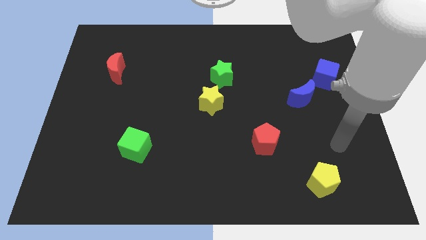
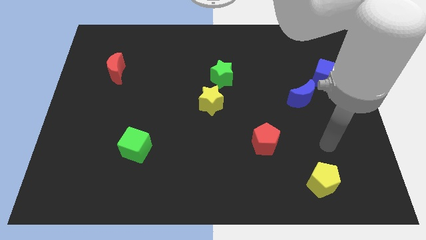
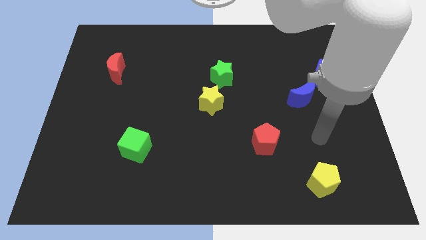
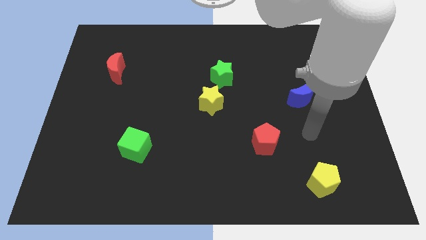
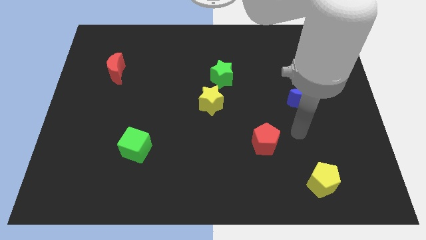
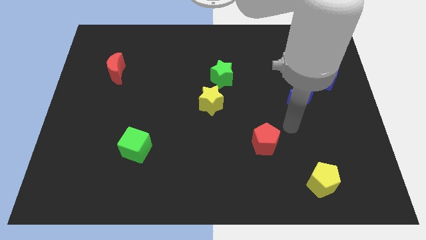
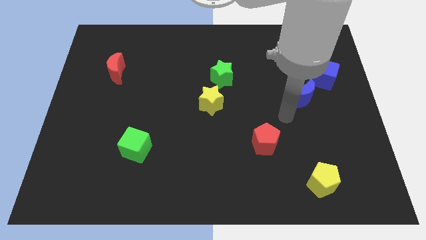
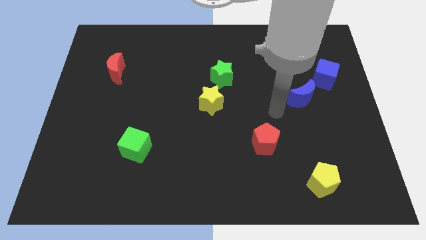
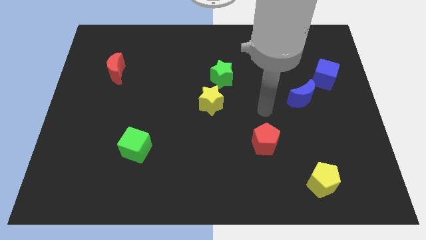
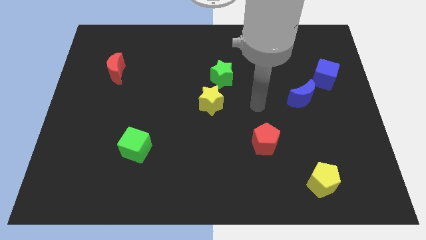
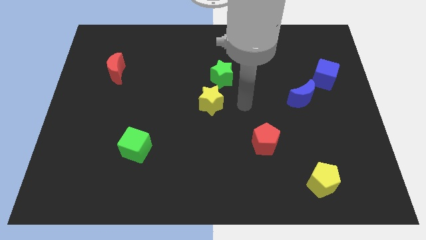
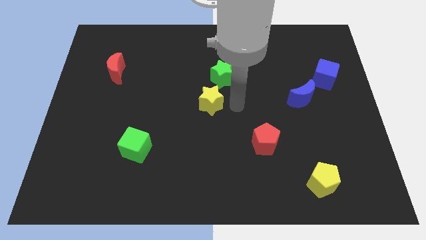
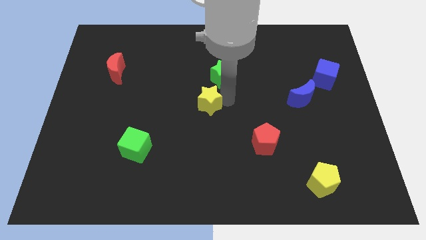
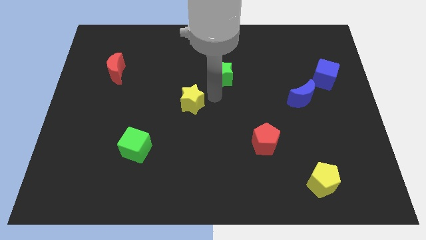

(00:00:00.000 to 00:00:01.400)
pull the green star apart from the yellow star

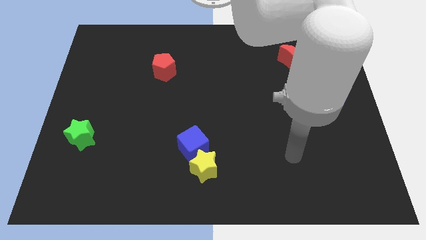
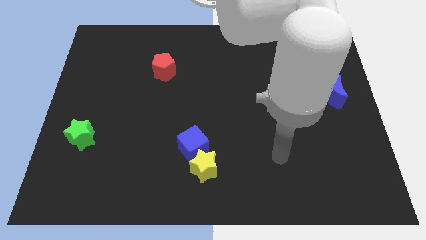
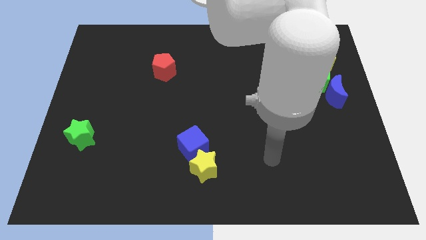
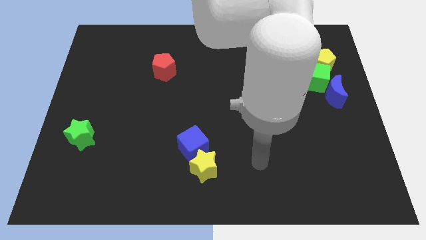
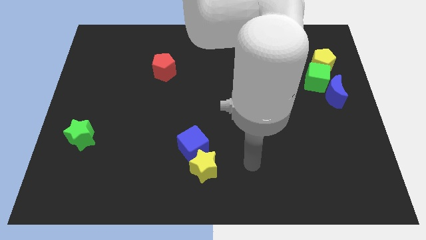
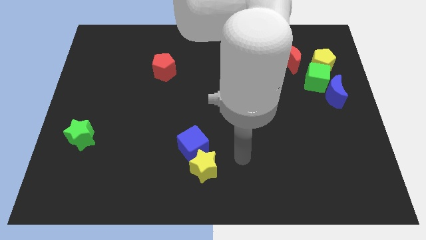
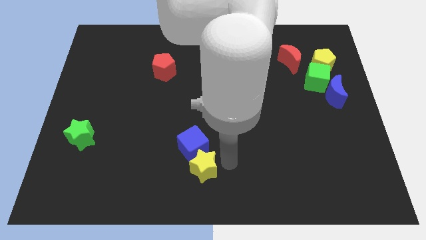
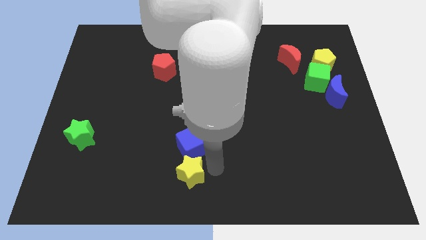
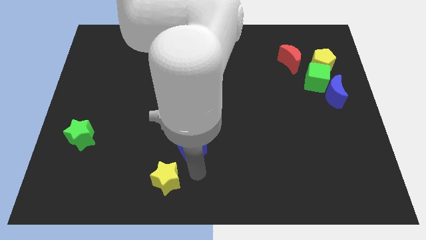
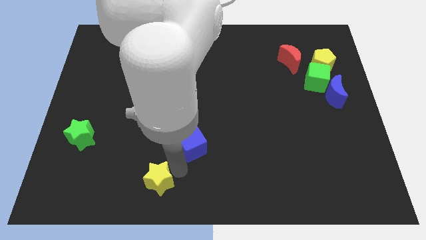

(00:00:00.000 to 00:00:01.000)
move the blue cube away from the yellow star

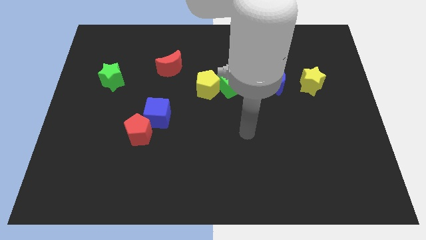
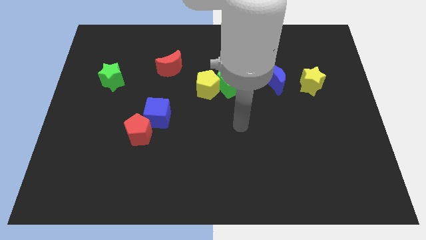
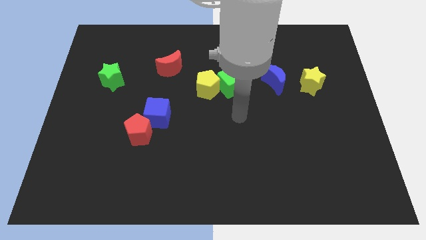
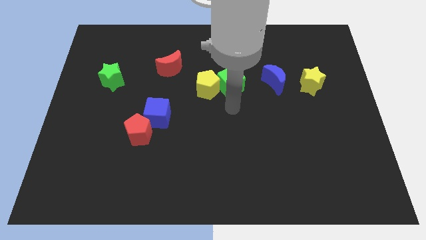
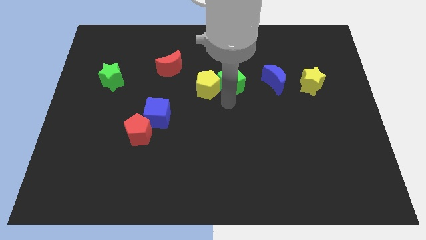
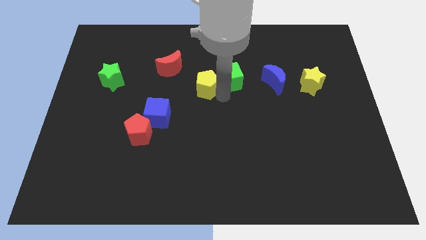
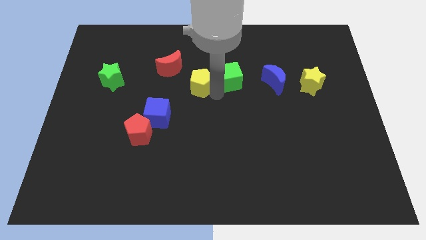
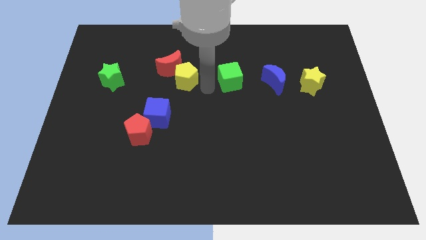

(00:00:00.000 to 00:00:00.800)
separate the green cube from the yellow pentagon

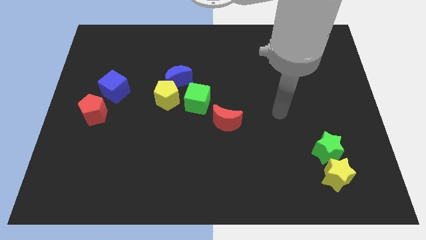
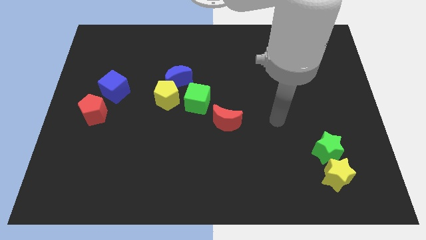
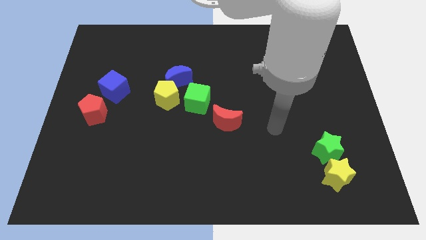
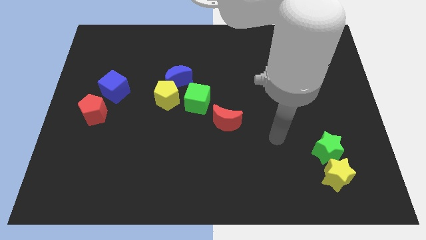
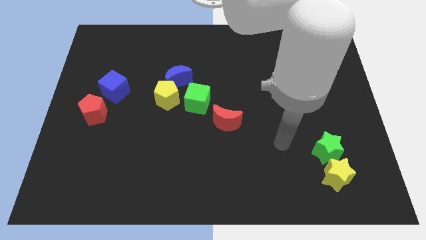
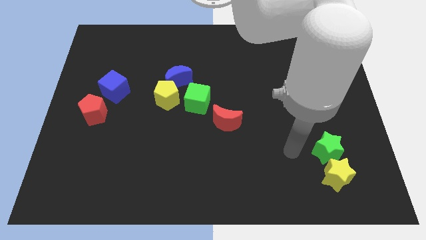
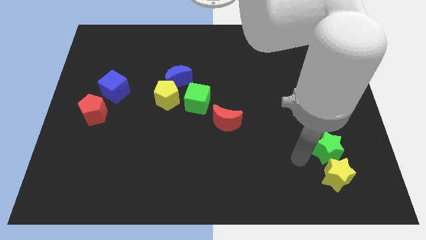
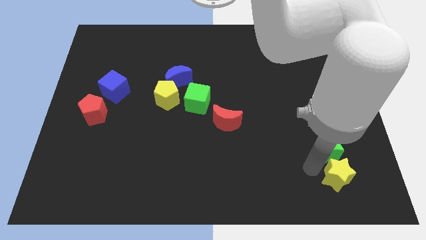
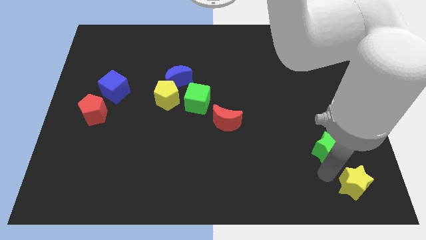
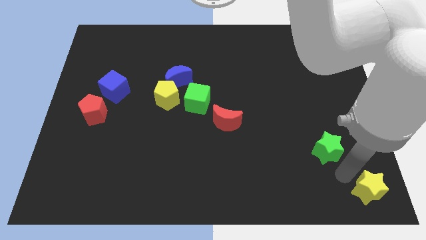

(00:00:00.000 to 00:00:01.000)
move the green star away from the yellow star

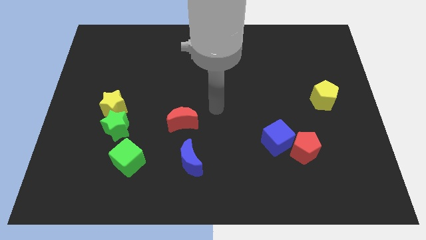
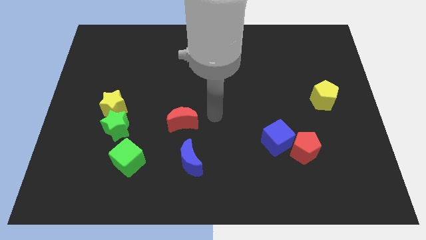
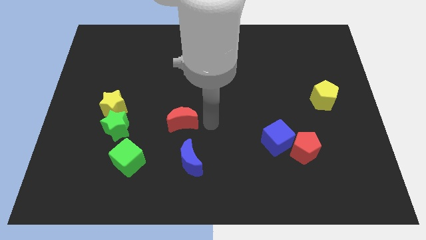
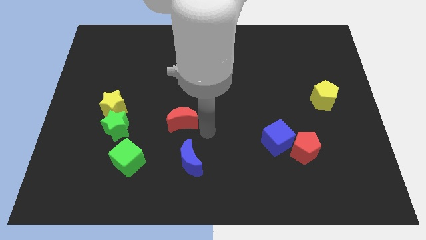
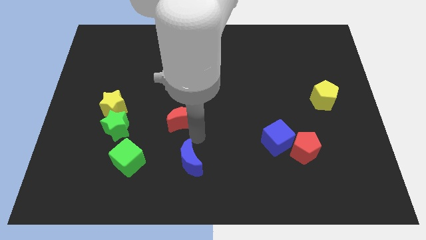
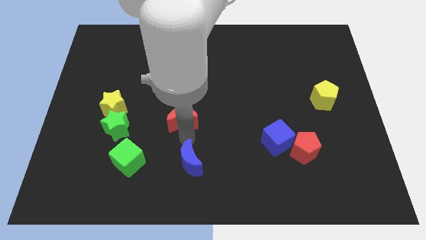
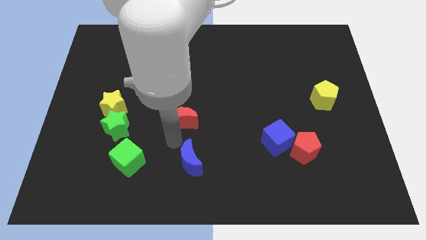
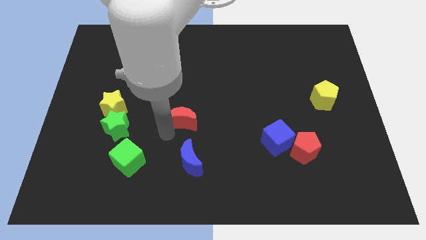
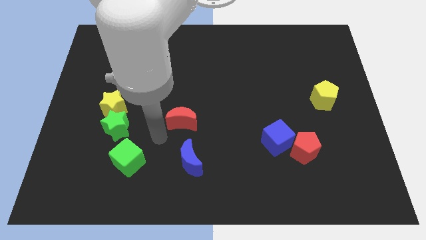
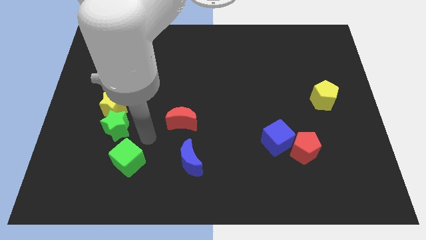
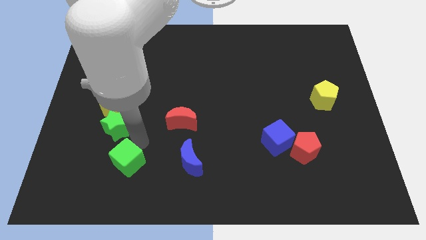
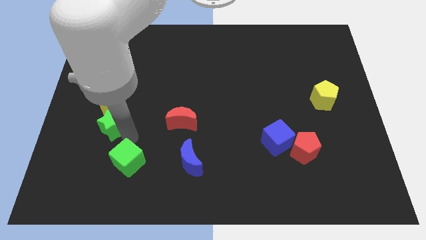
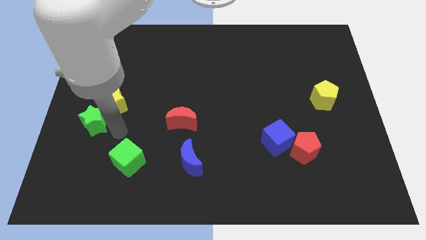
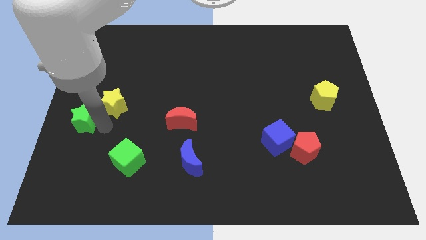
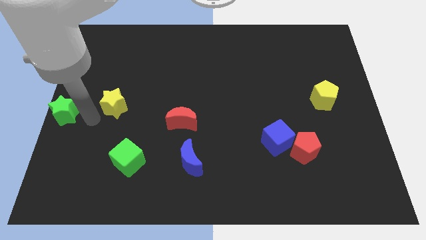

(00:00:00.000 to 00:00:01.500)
pull the yellow star apart from the green star

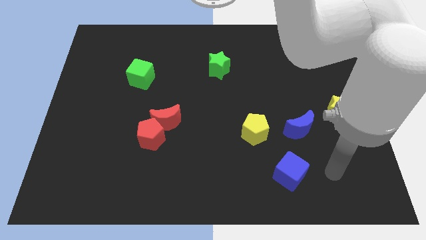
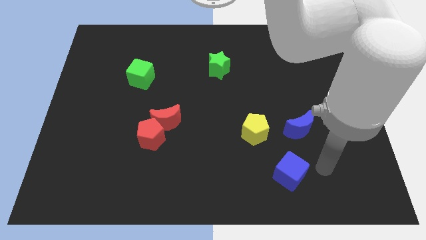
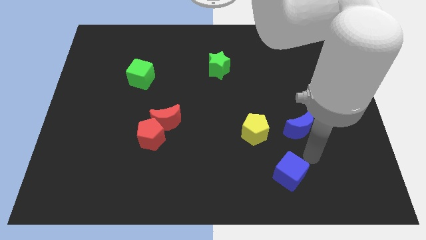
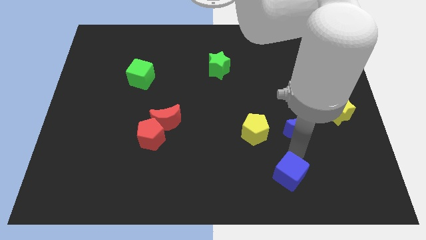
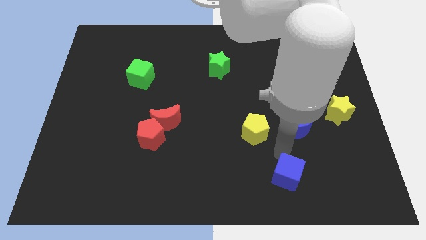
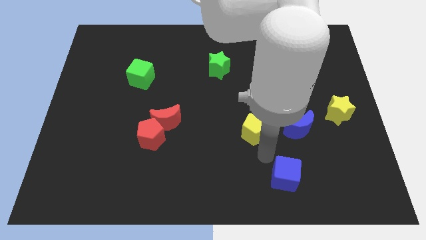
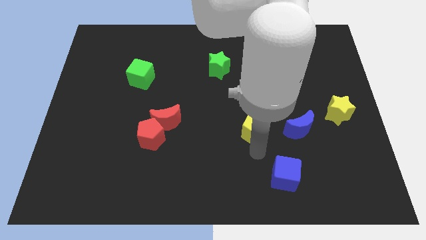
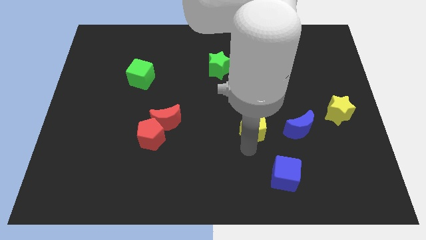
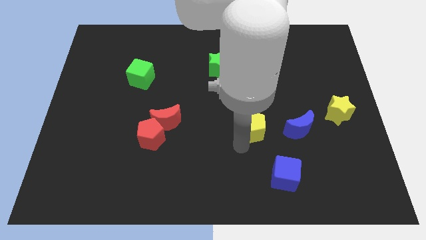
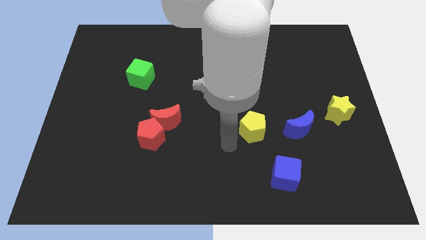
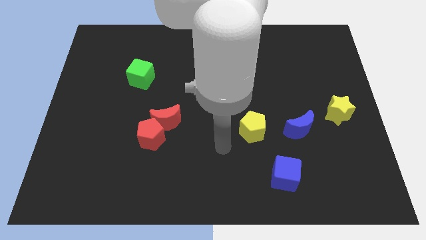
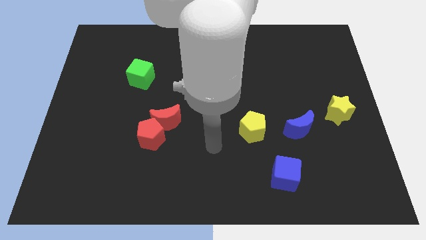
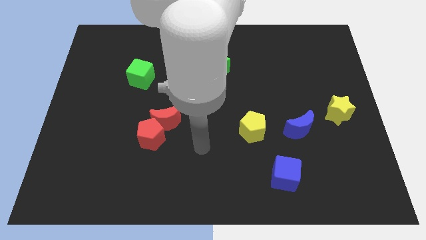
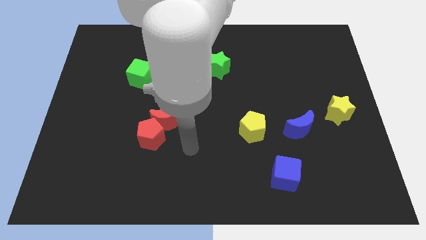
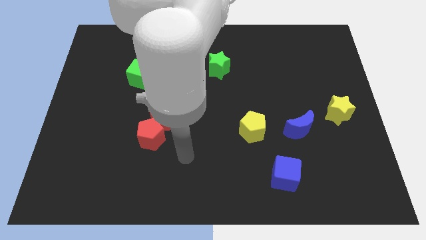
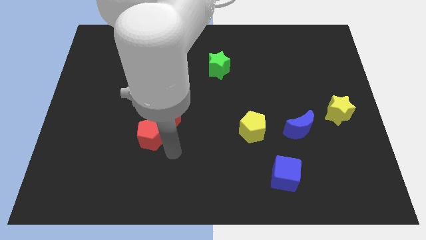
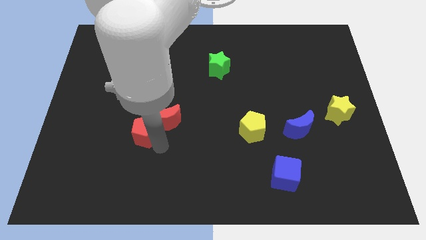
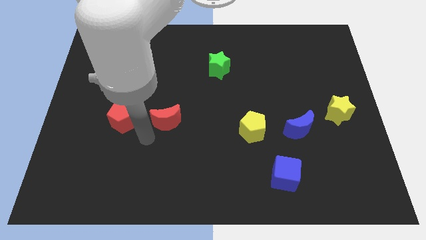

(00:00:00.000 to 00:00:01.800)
separate the red moon from the red pentagon

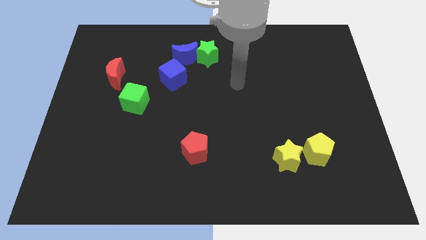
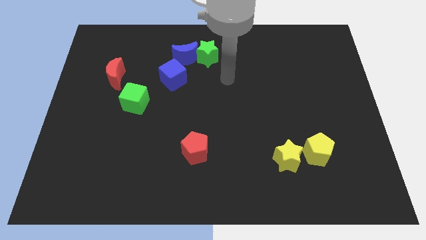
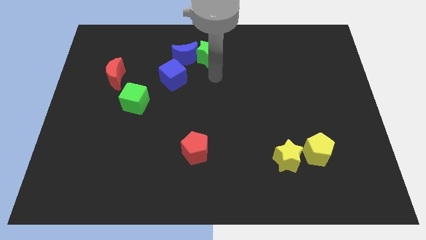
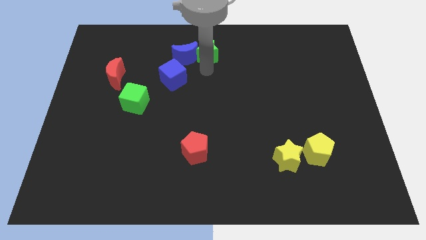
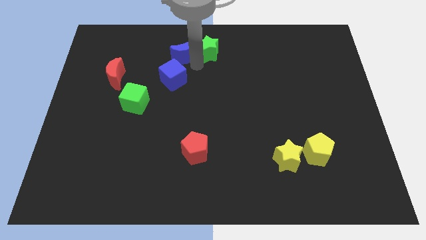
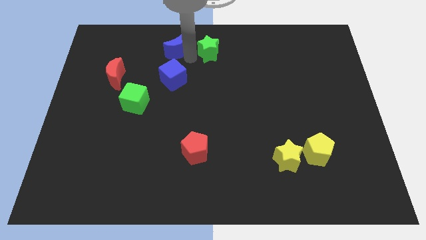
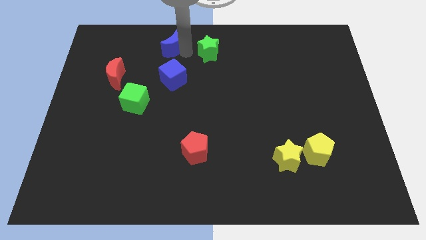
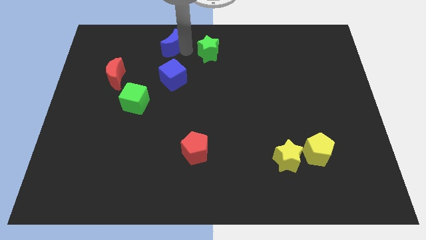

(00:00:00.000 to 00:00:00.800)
pull the green star apart from the blue moon

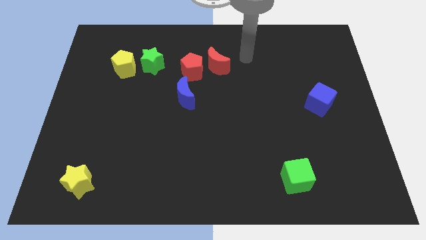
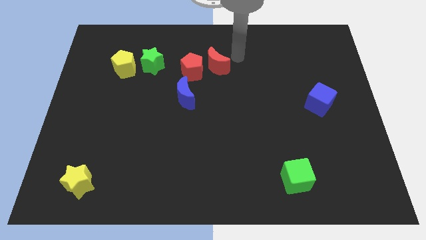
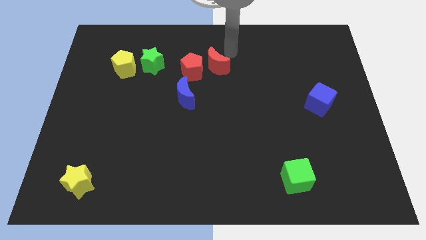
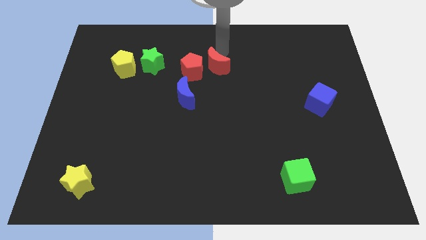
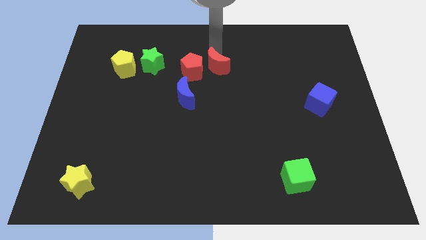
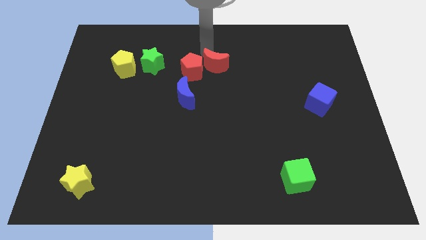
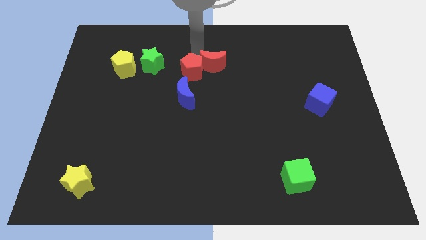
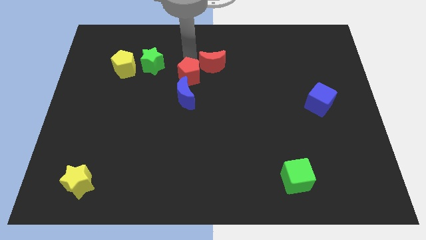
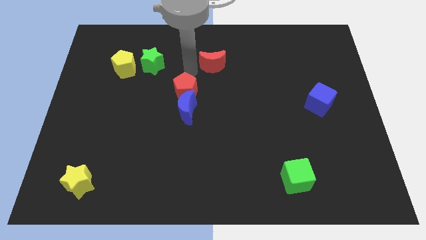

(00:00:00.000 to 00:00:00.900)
move the red moon away from the red pentagon

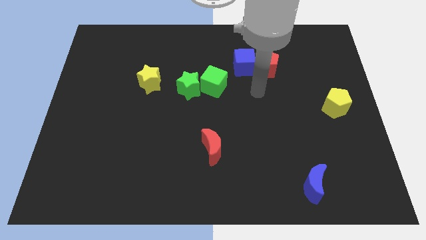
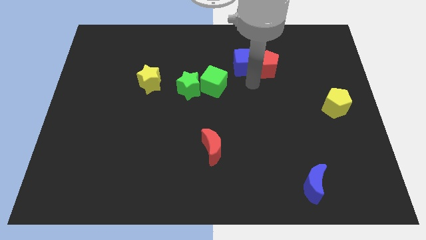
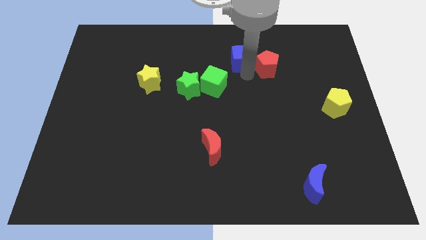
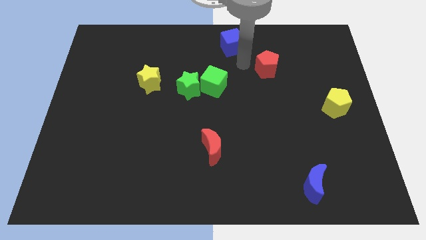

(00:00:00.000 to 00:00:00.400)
pull the red pentagon apart from the blue cube
